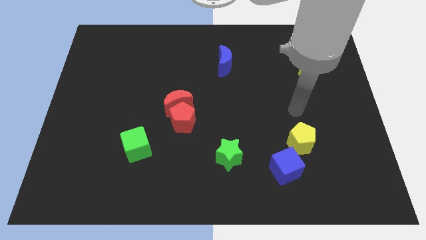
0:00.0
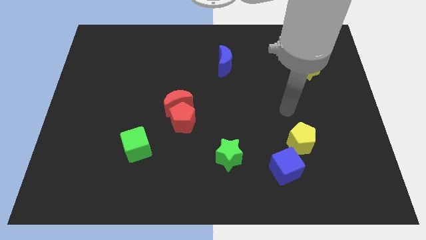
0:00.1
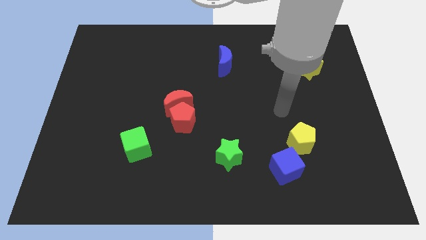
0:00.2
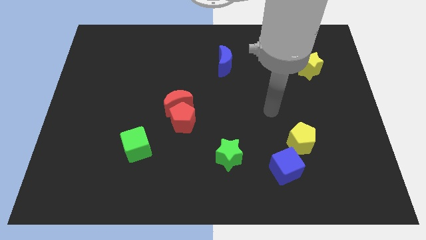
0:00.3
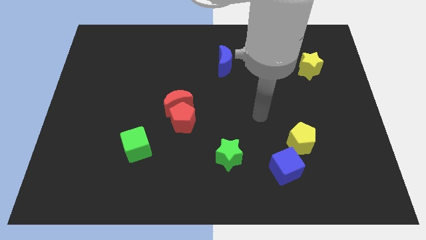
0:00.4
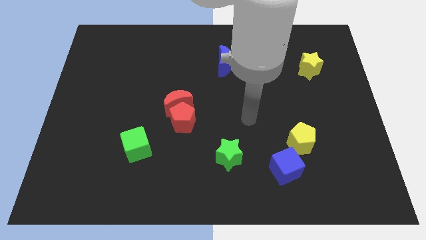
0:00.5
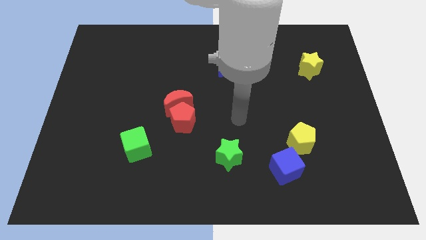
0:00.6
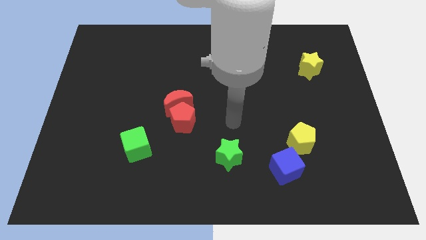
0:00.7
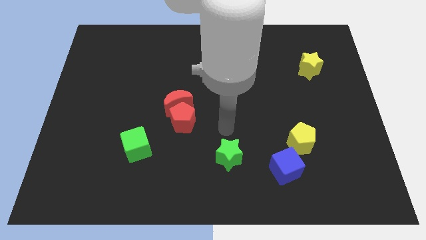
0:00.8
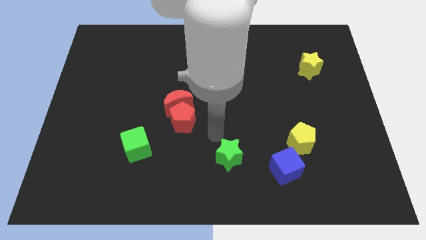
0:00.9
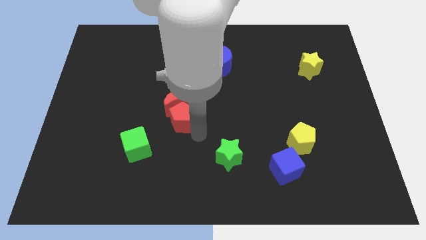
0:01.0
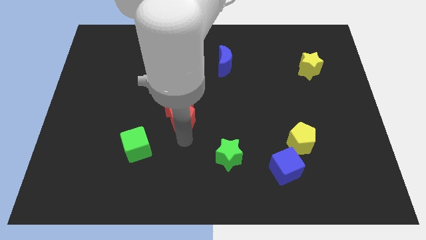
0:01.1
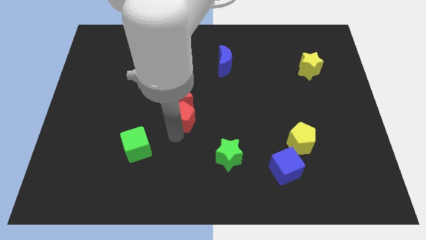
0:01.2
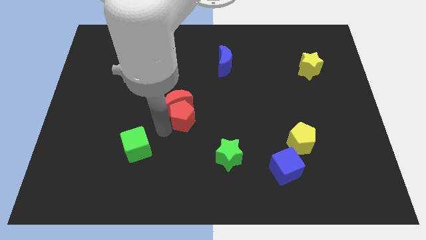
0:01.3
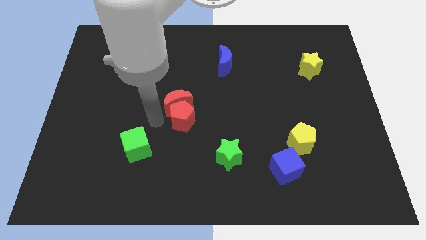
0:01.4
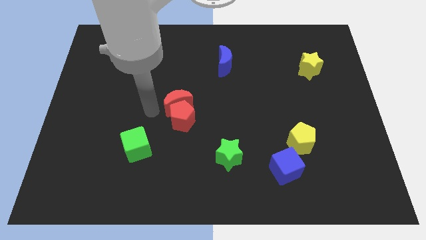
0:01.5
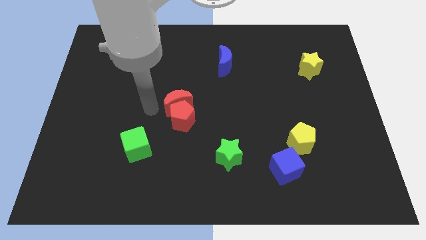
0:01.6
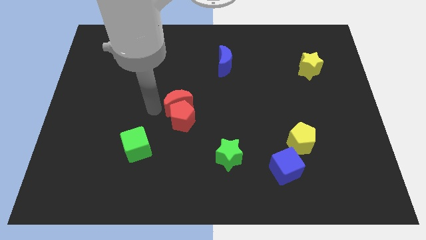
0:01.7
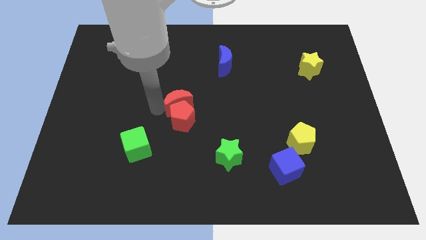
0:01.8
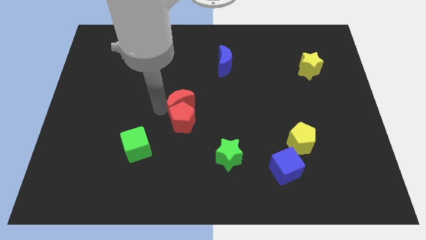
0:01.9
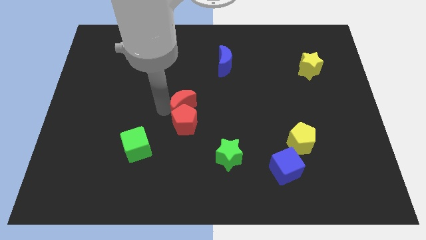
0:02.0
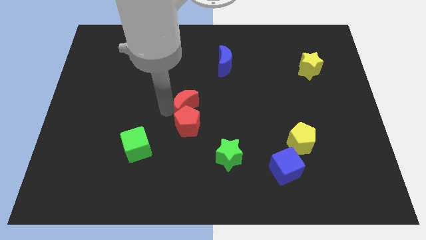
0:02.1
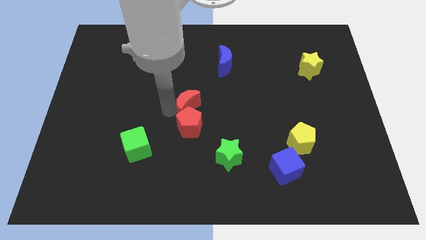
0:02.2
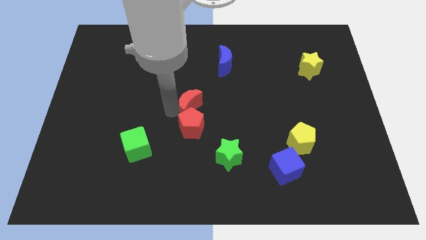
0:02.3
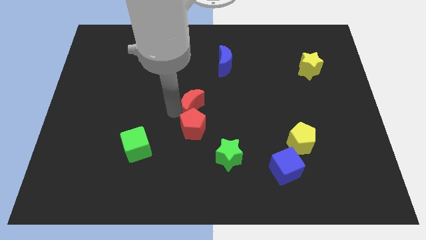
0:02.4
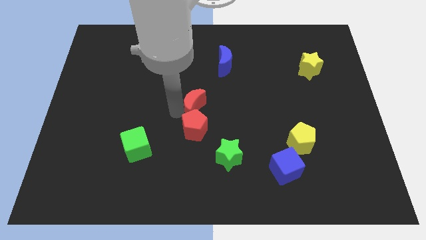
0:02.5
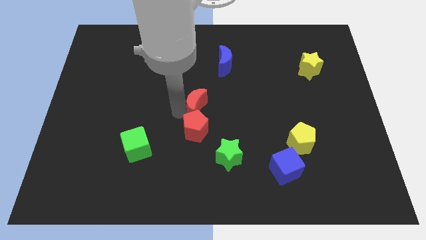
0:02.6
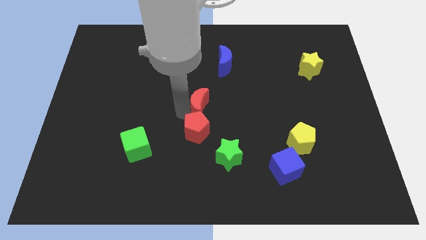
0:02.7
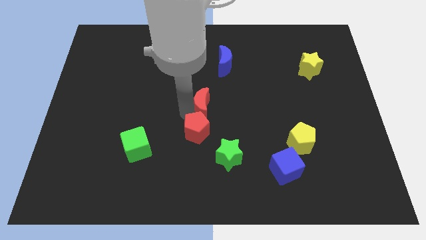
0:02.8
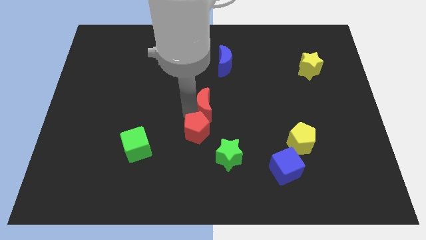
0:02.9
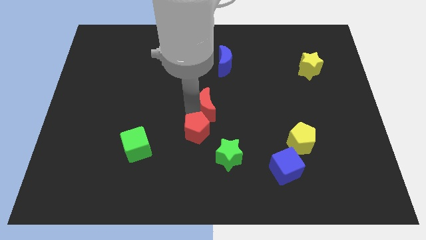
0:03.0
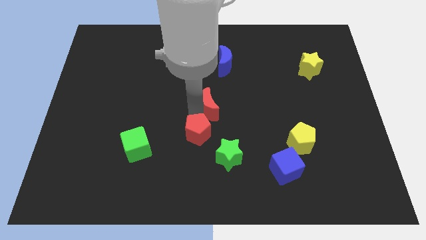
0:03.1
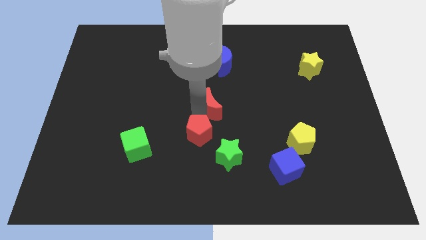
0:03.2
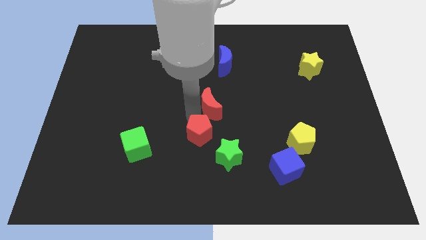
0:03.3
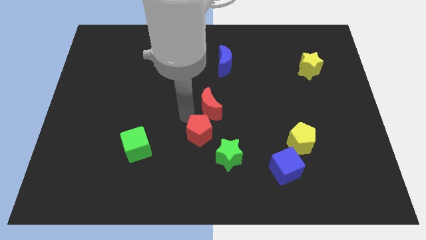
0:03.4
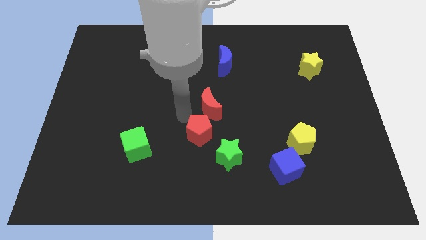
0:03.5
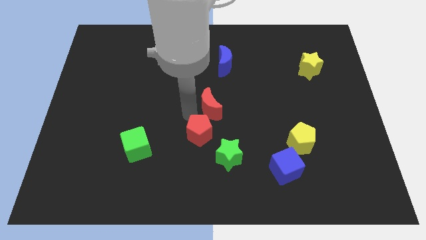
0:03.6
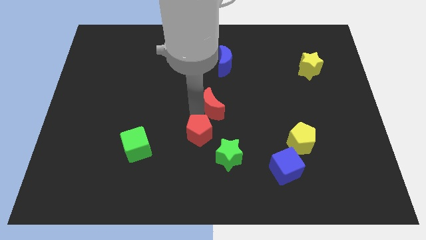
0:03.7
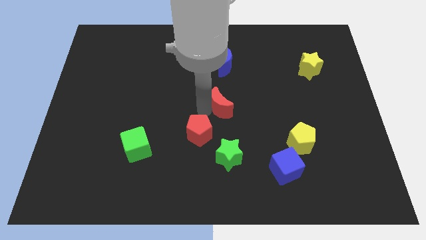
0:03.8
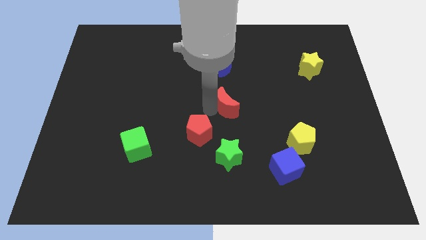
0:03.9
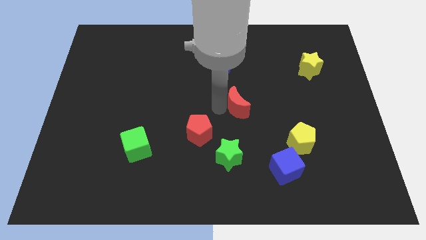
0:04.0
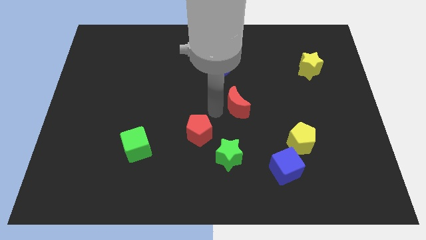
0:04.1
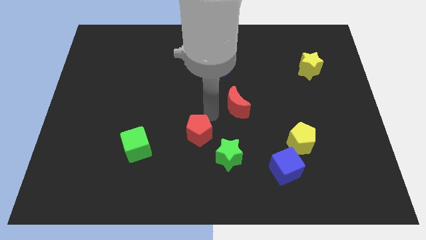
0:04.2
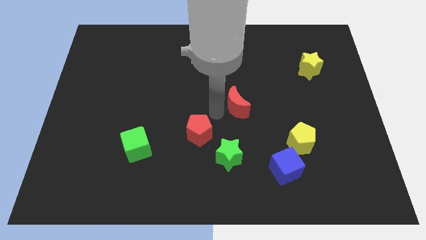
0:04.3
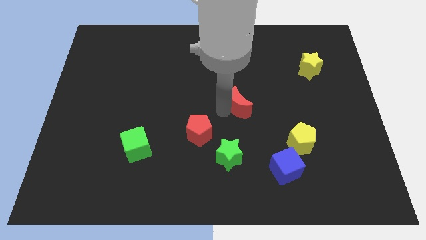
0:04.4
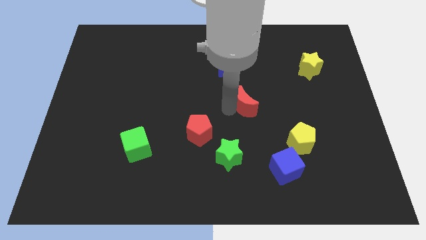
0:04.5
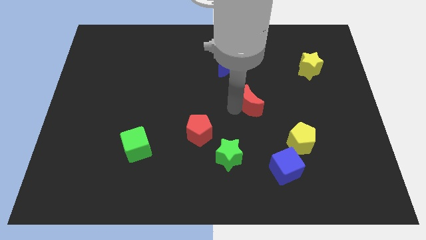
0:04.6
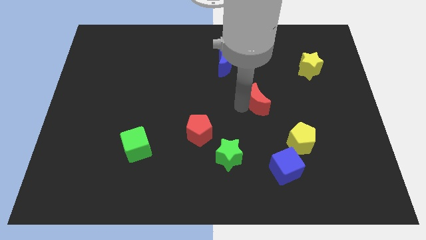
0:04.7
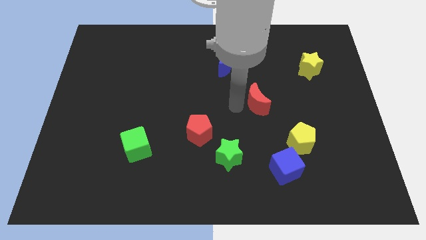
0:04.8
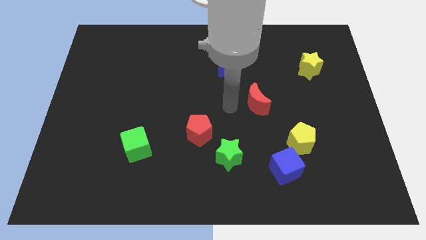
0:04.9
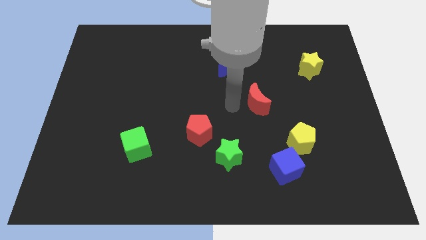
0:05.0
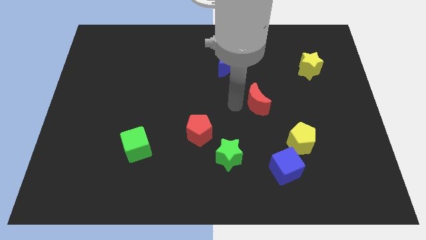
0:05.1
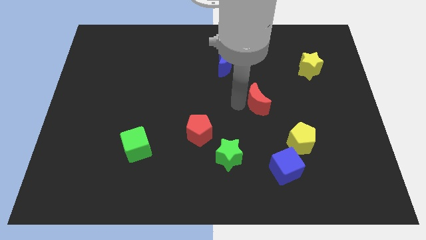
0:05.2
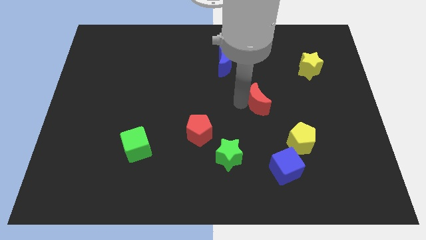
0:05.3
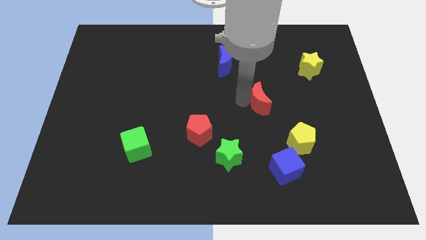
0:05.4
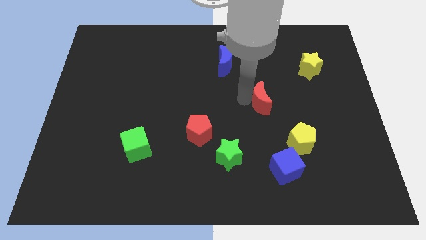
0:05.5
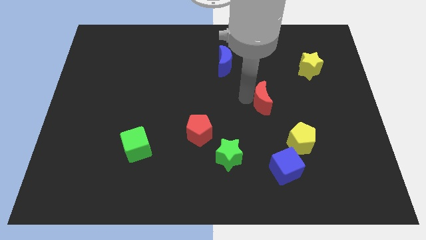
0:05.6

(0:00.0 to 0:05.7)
push the red moon to the right

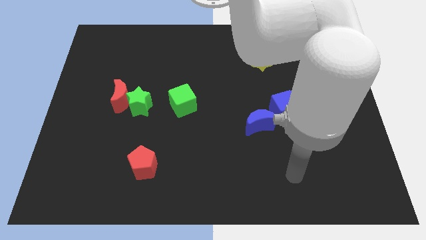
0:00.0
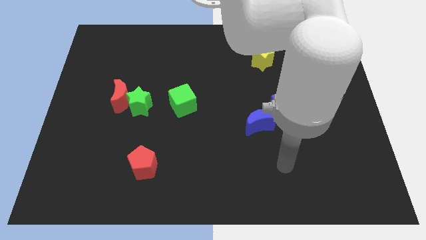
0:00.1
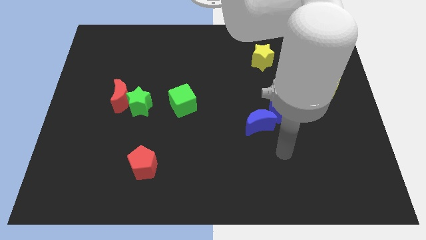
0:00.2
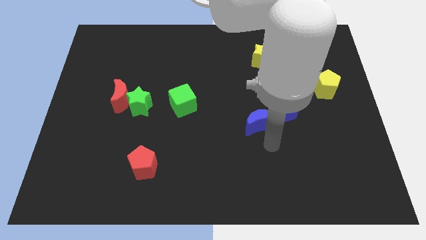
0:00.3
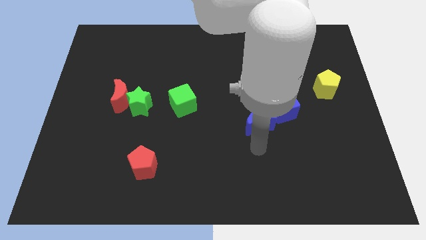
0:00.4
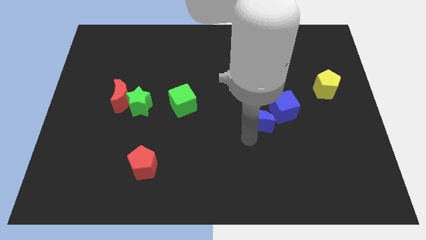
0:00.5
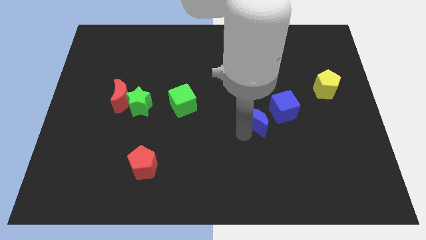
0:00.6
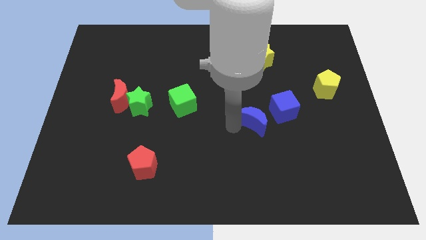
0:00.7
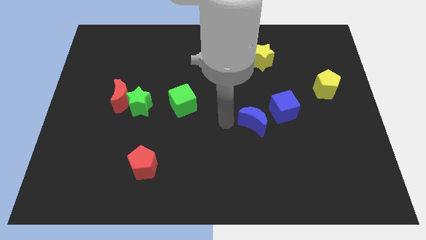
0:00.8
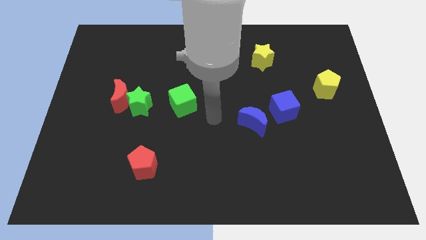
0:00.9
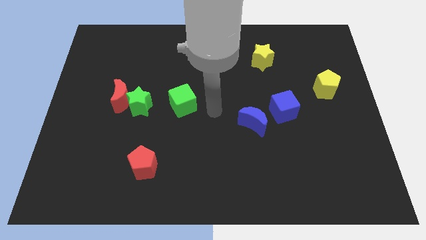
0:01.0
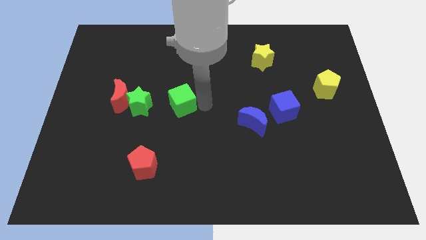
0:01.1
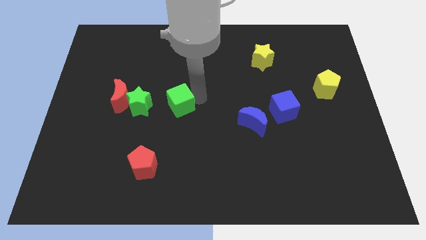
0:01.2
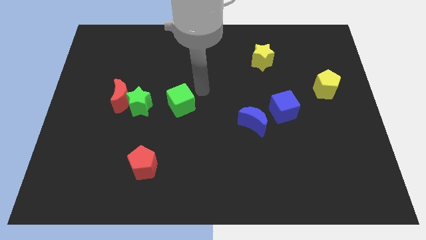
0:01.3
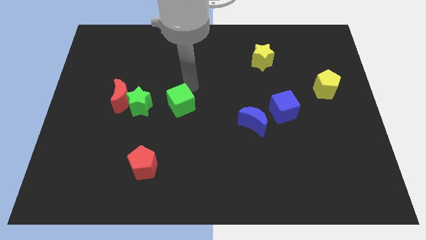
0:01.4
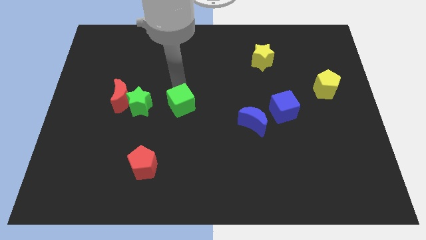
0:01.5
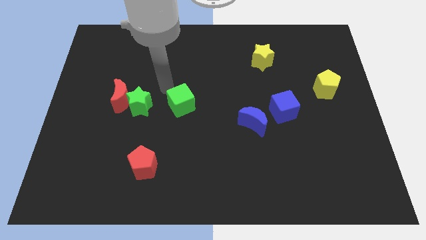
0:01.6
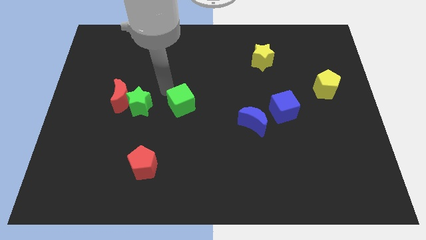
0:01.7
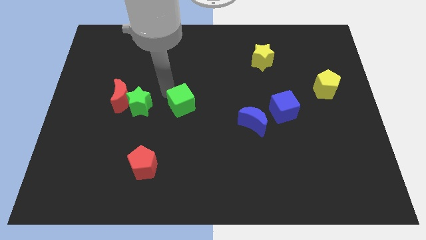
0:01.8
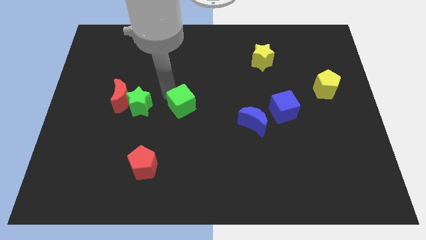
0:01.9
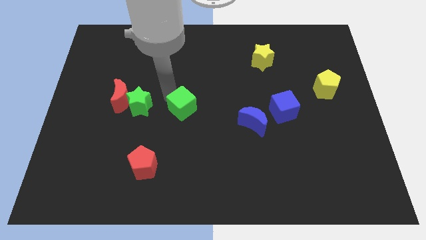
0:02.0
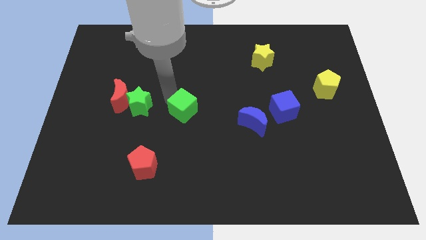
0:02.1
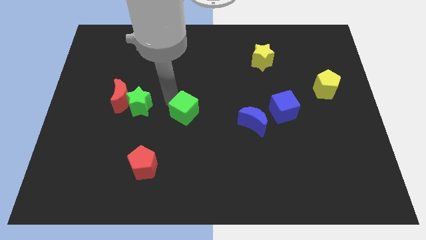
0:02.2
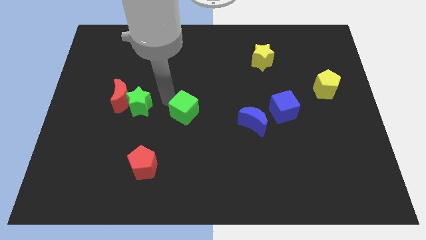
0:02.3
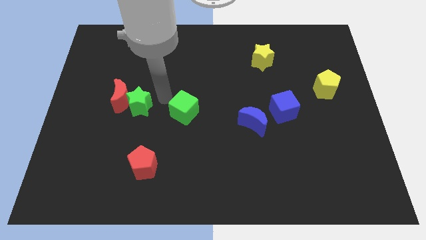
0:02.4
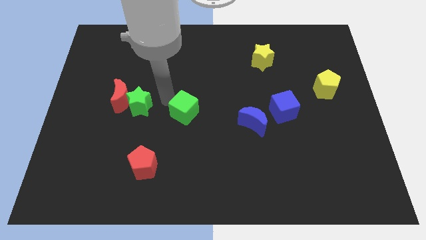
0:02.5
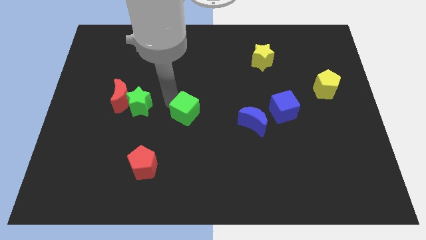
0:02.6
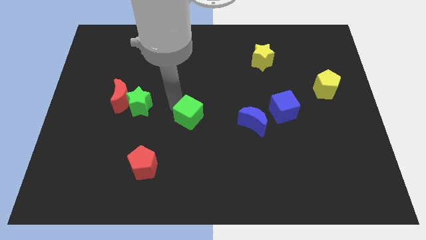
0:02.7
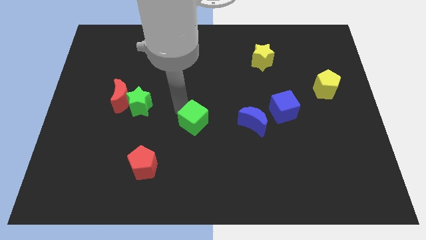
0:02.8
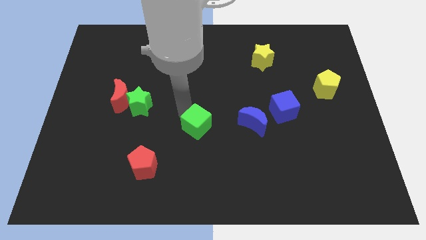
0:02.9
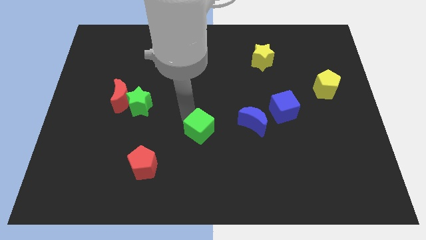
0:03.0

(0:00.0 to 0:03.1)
push the green cube slightly down and then to the right
